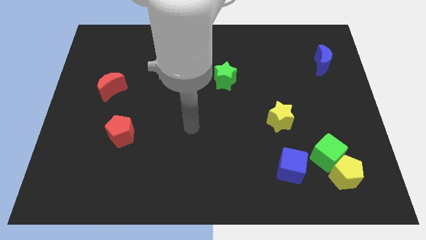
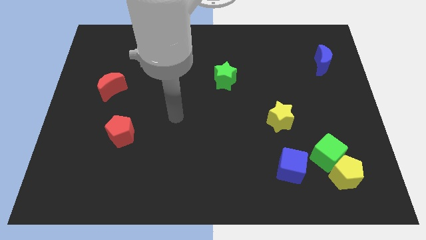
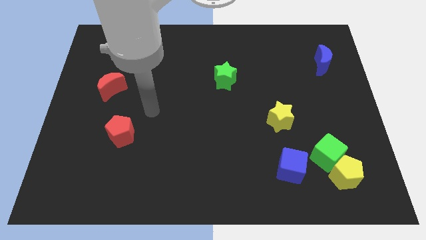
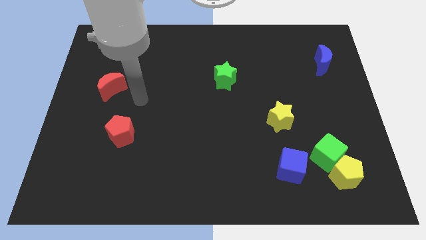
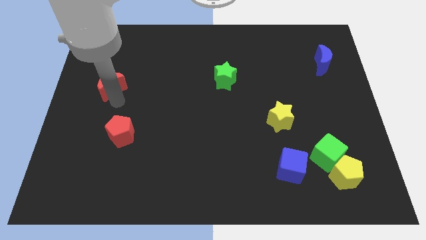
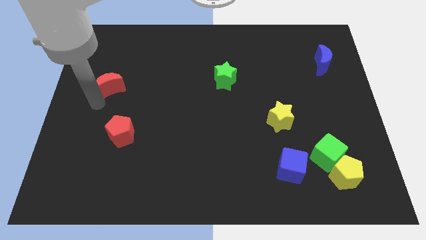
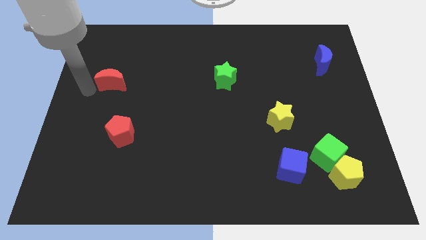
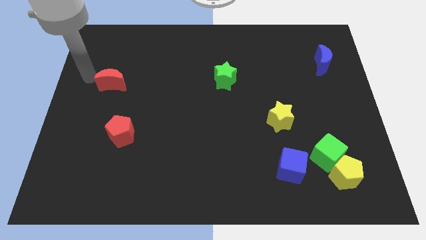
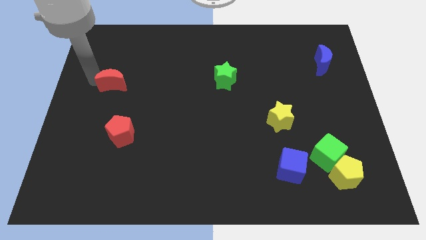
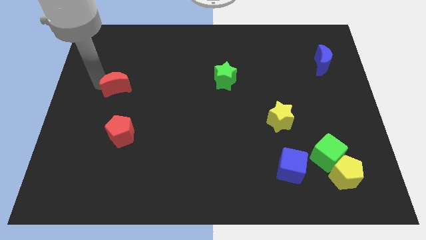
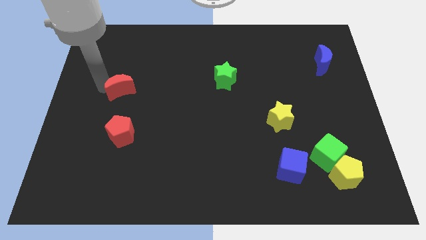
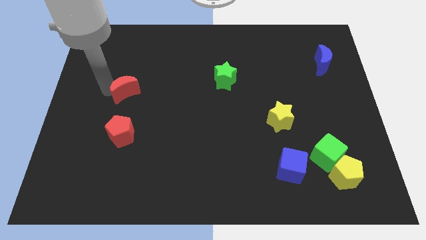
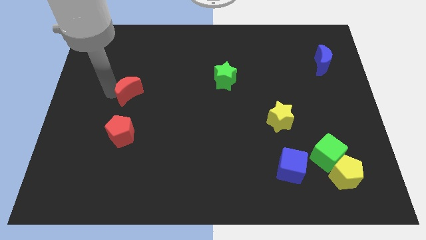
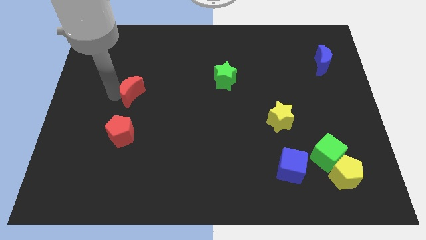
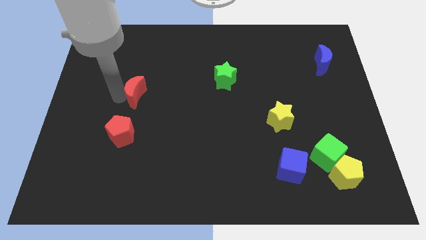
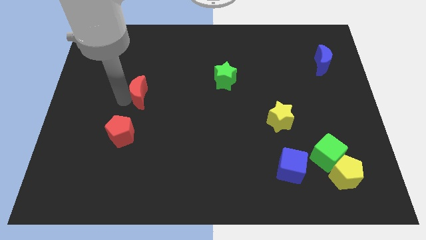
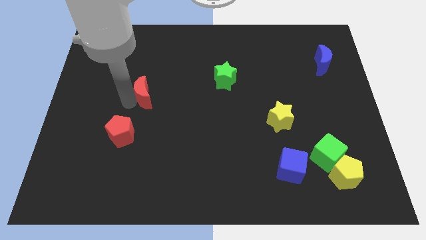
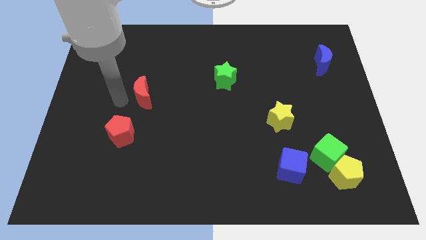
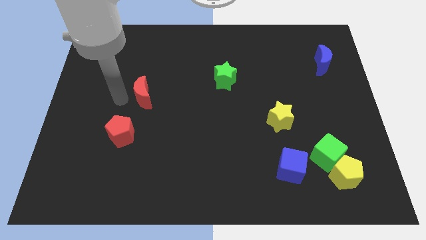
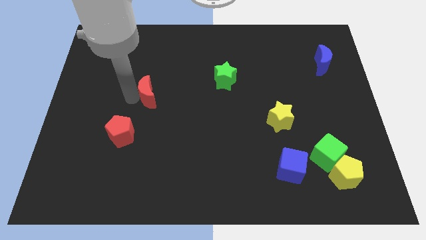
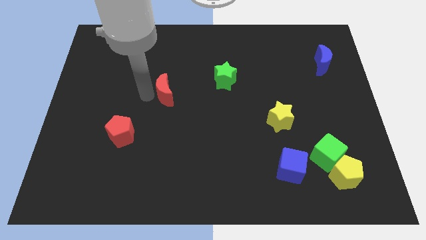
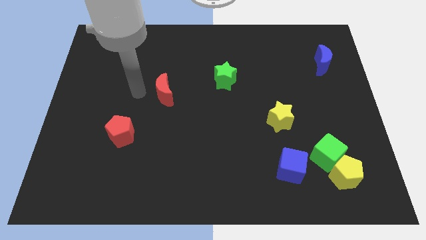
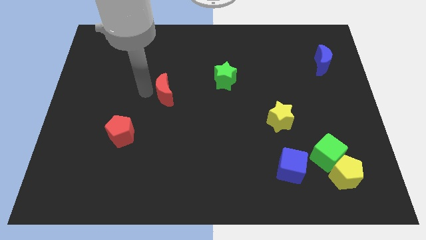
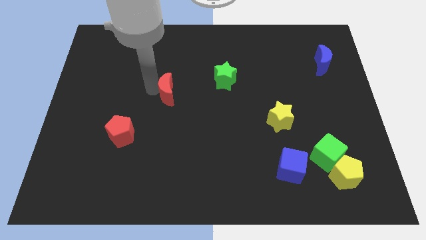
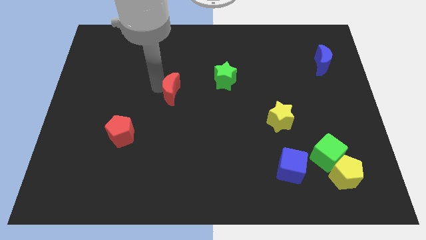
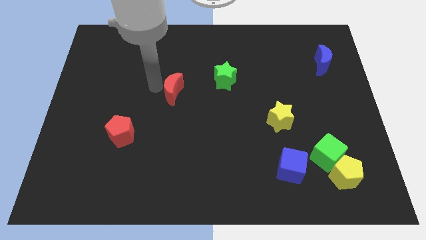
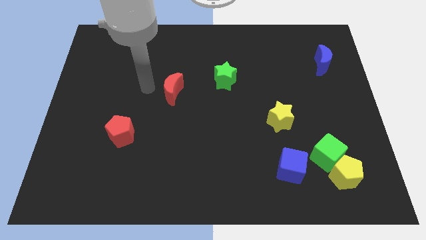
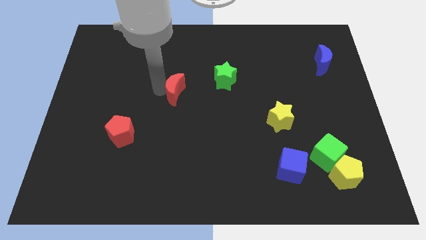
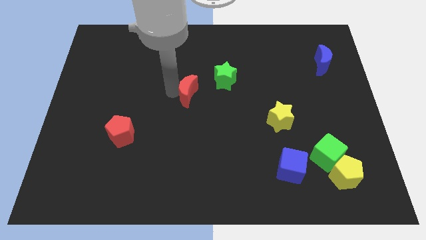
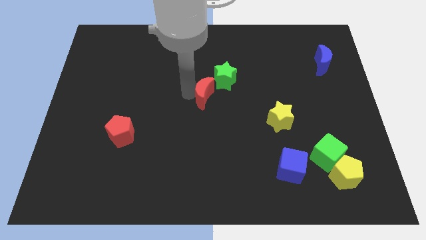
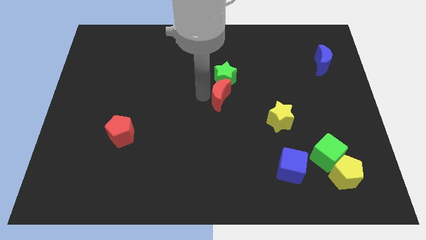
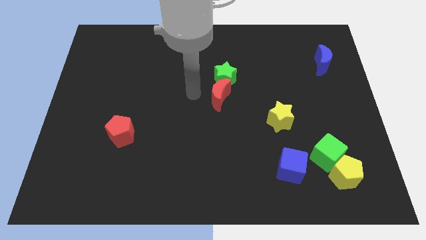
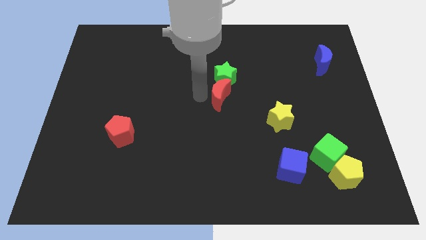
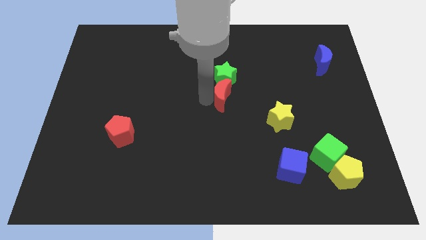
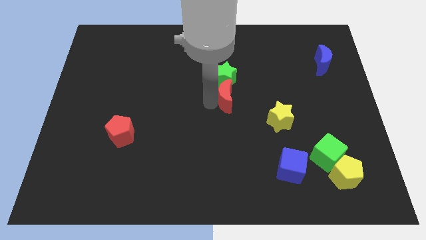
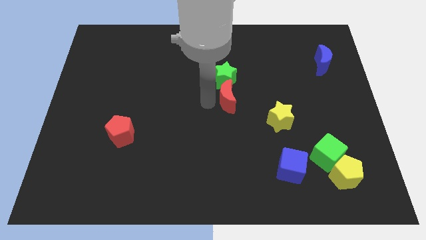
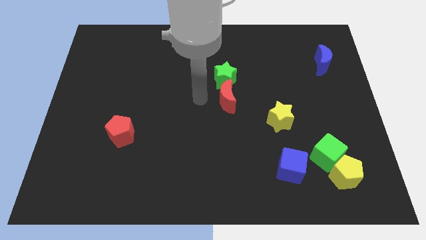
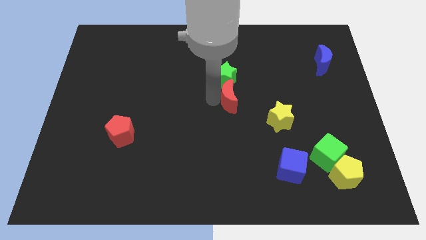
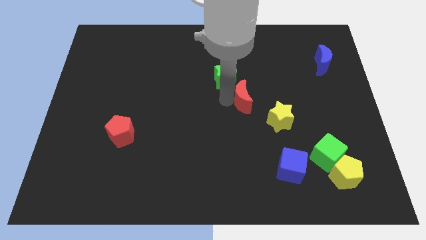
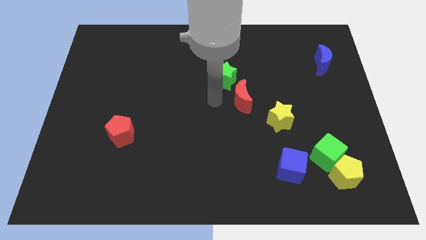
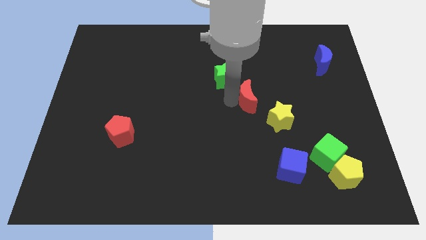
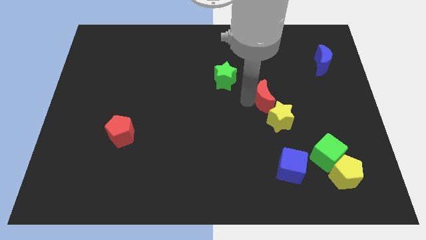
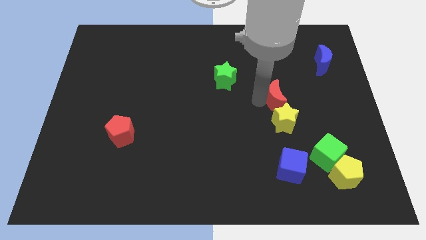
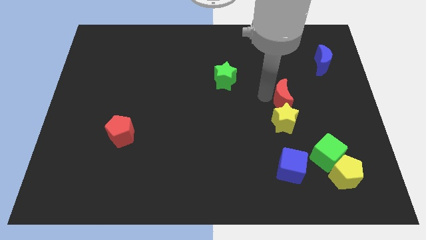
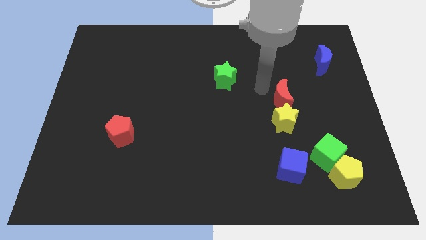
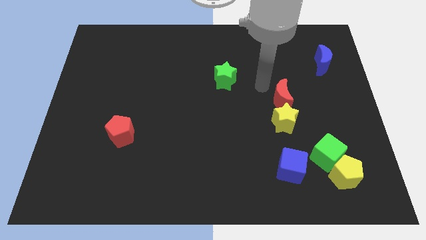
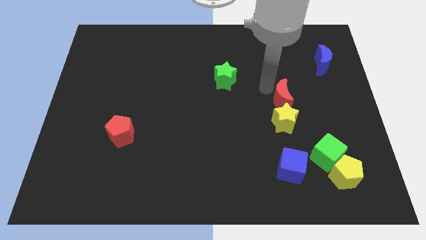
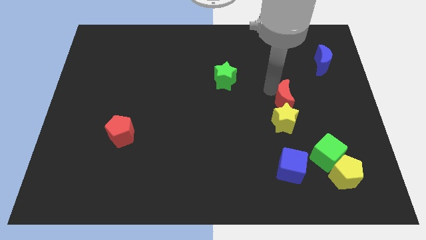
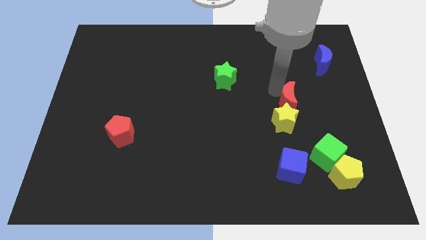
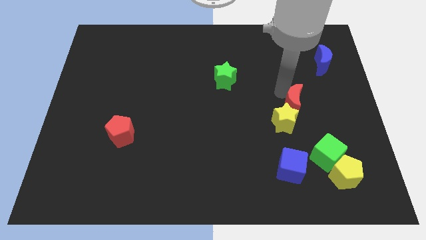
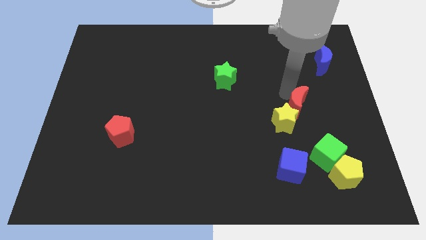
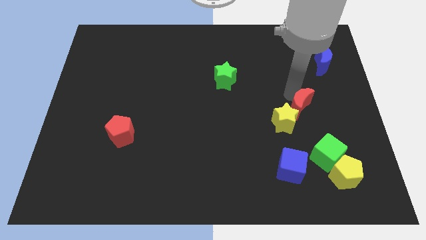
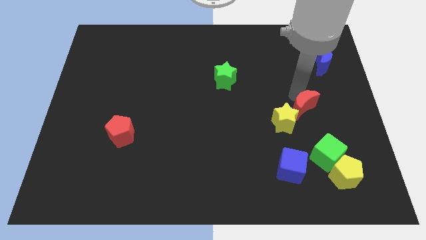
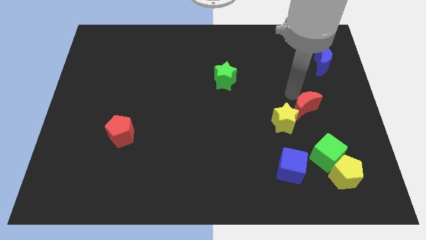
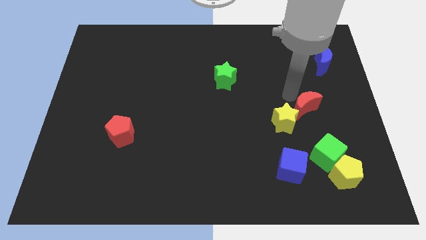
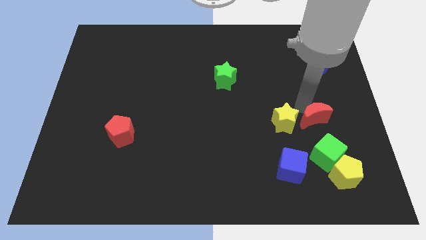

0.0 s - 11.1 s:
slide the red moon to the top side of the yellow pentagon

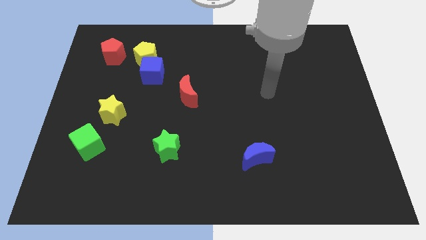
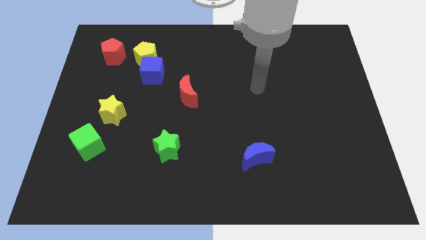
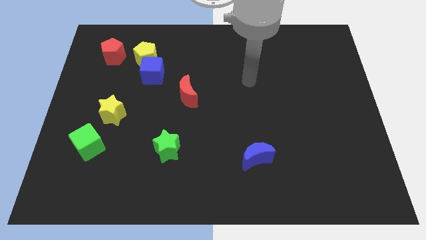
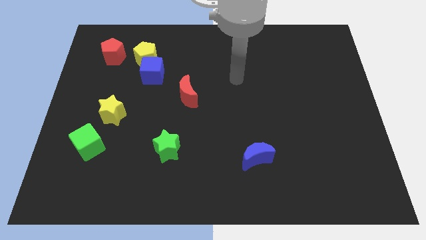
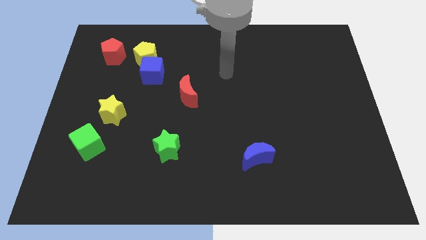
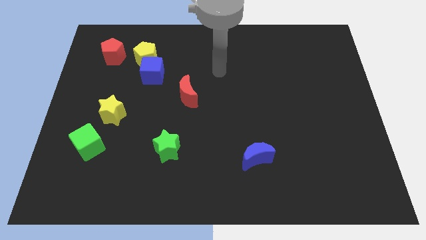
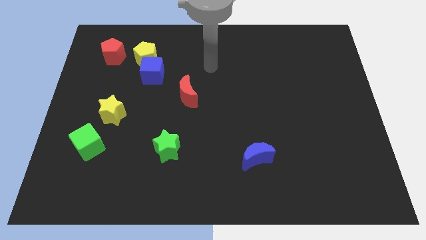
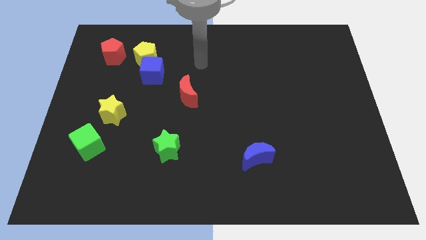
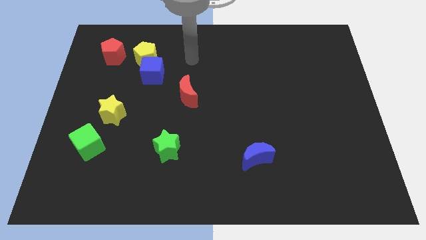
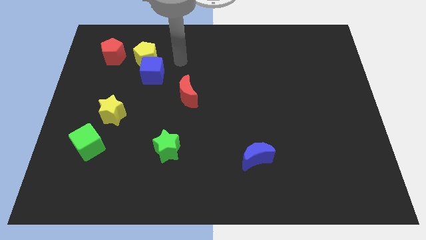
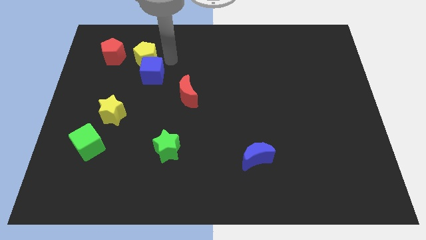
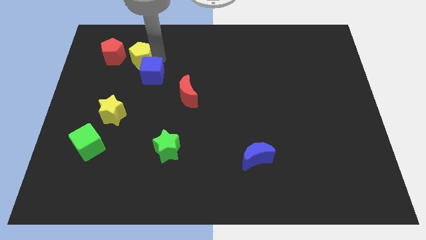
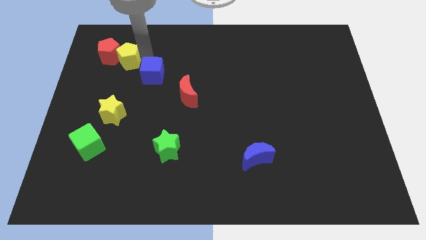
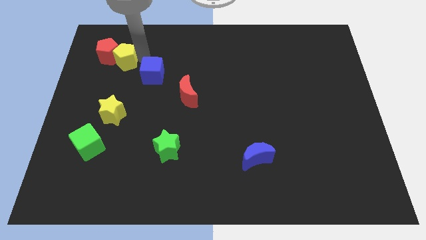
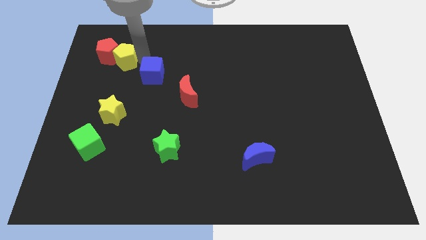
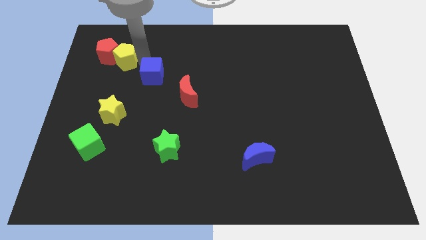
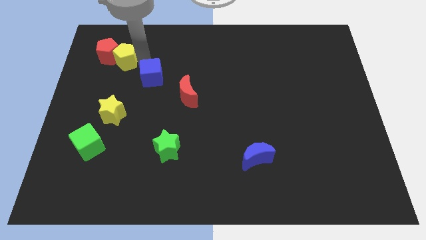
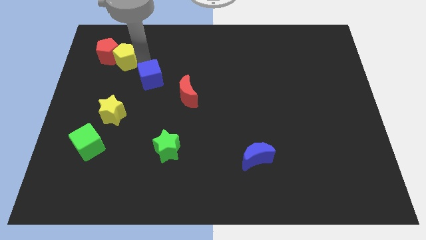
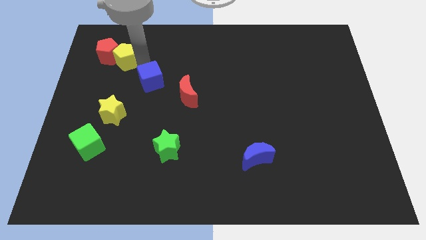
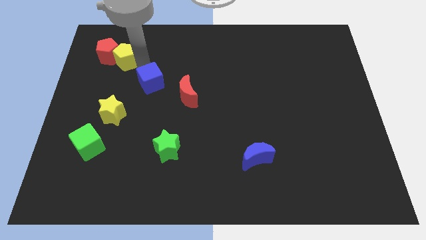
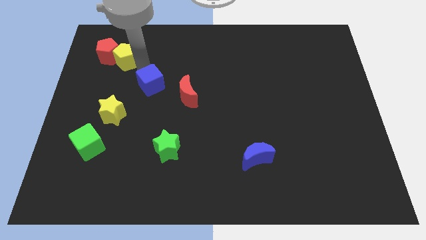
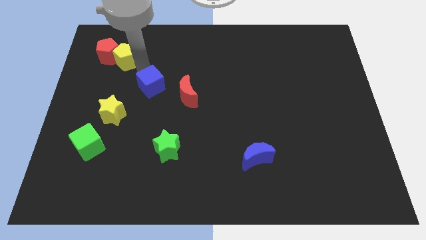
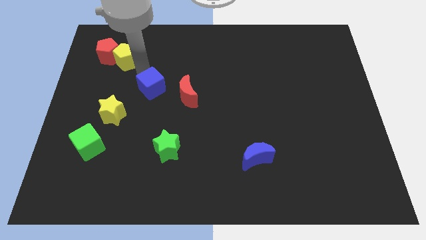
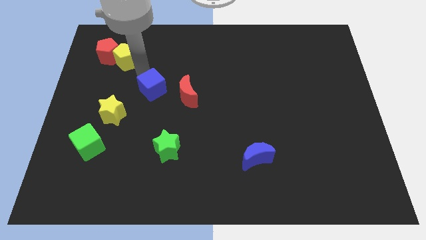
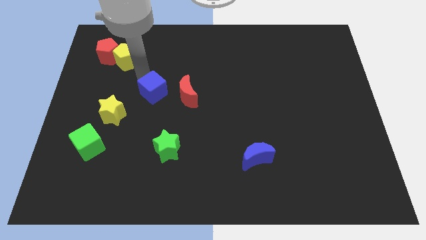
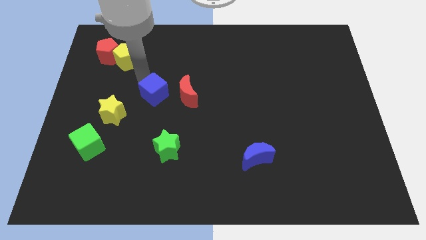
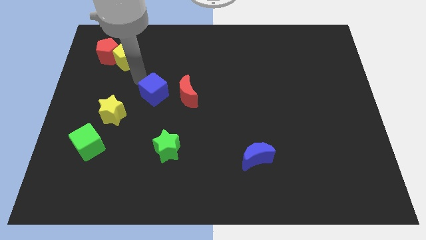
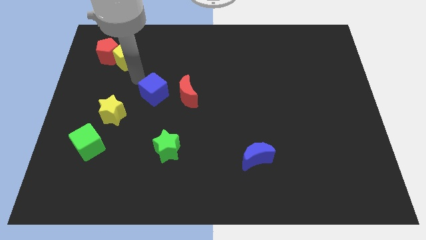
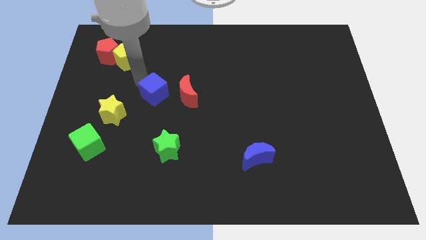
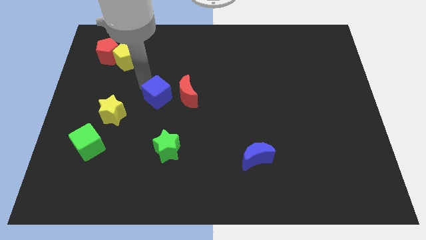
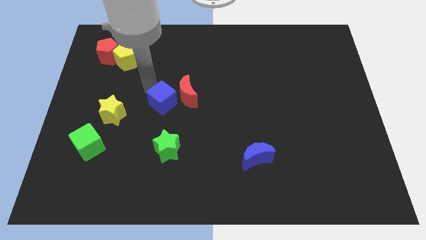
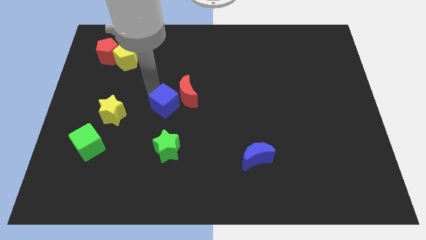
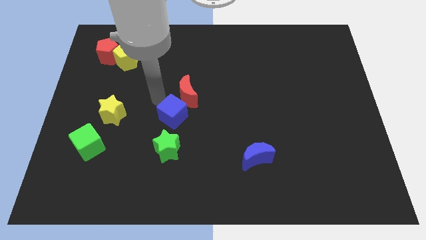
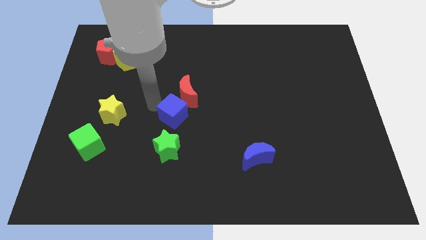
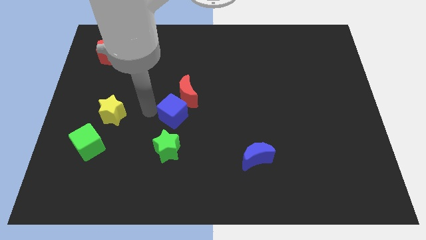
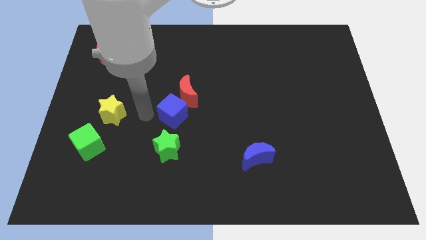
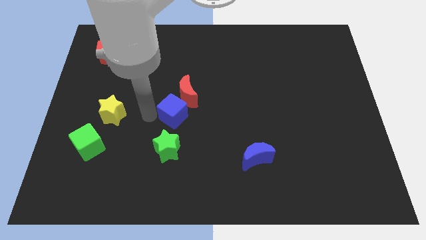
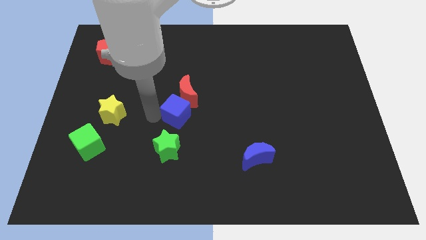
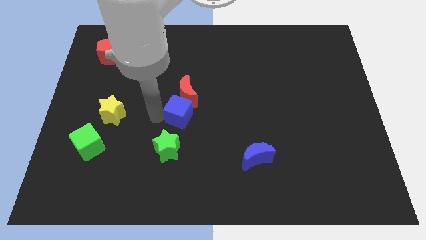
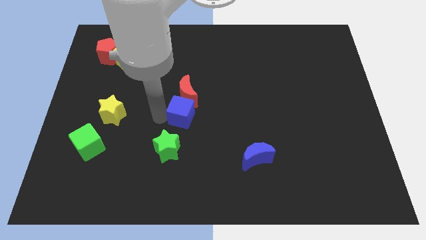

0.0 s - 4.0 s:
slide the blue cube to the bottom right side of the red moon
